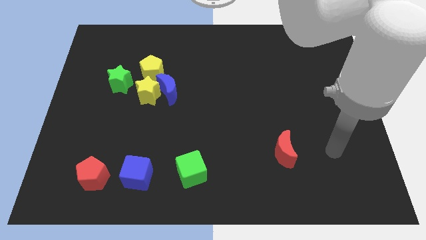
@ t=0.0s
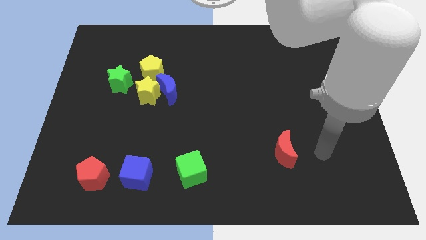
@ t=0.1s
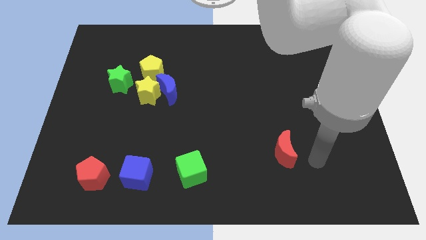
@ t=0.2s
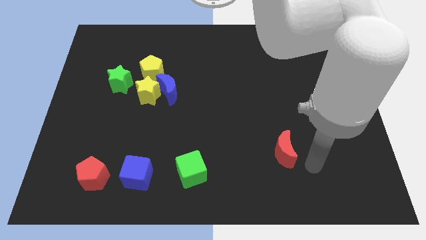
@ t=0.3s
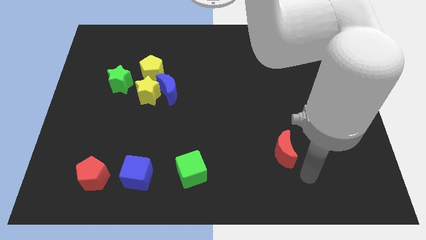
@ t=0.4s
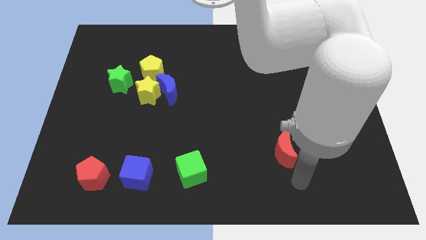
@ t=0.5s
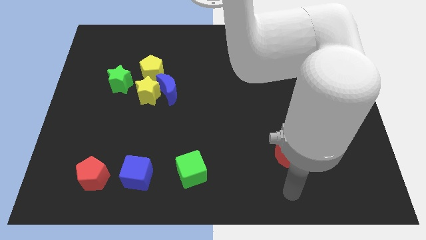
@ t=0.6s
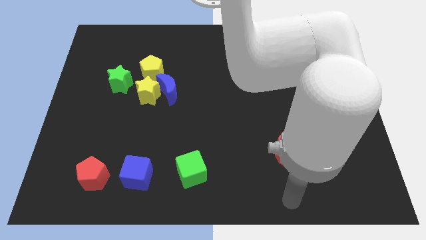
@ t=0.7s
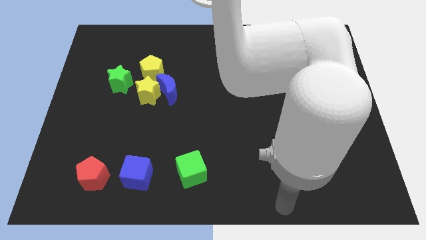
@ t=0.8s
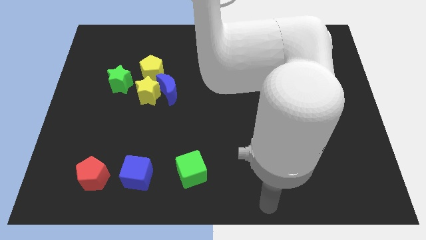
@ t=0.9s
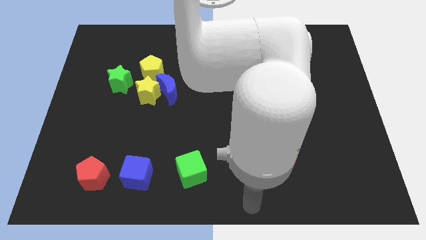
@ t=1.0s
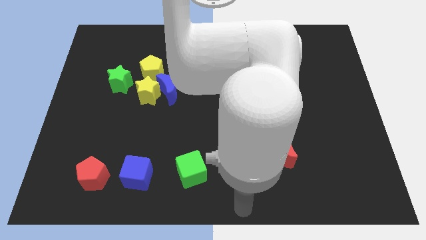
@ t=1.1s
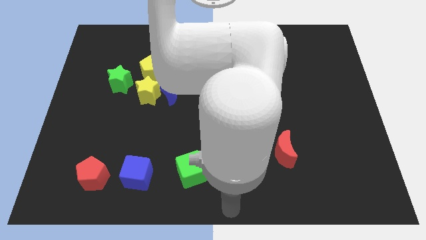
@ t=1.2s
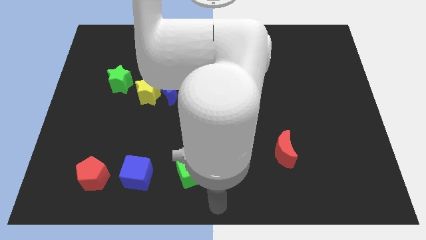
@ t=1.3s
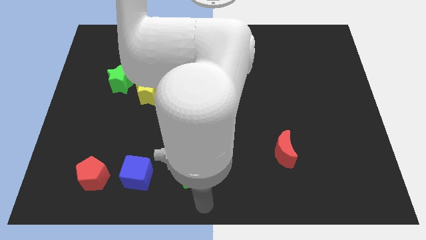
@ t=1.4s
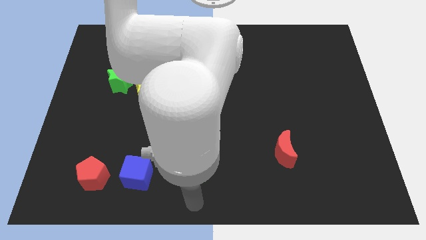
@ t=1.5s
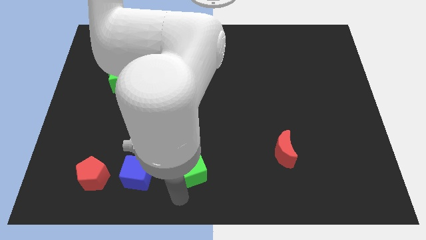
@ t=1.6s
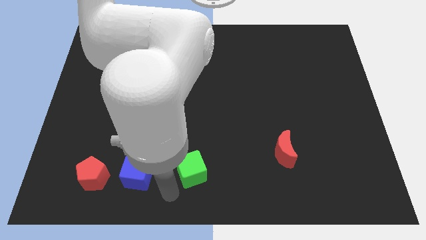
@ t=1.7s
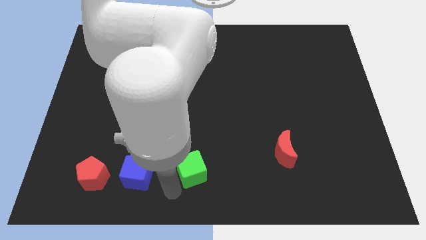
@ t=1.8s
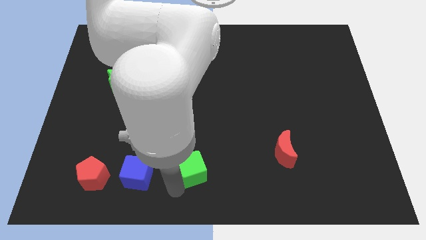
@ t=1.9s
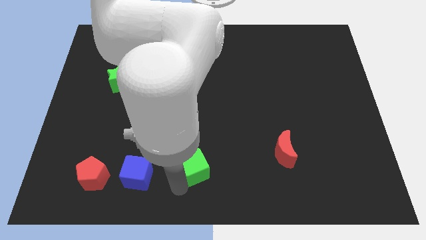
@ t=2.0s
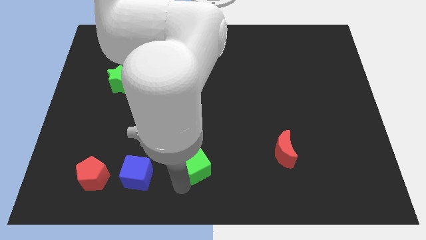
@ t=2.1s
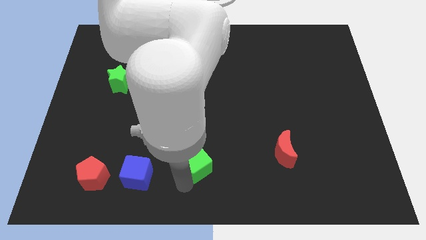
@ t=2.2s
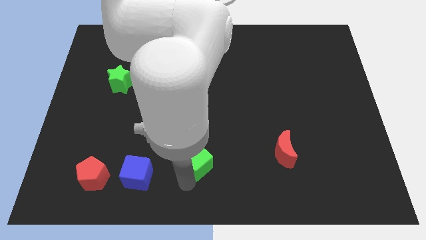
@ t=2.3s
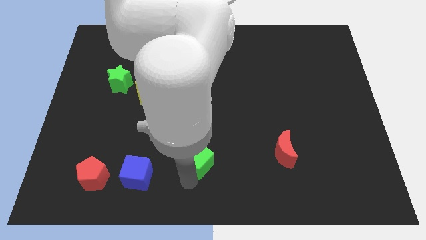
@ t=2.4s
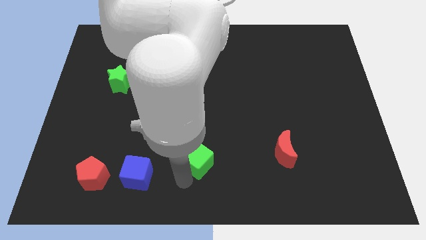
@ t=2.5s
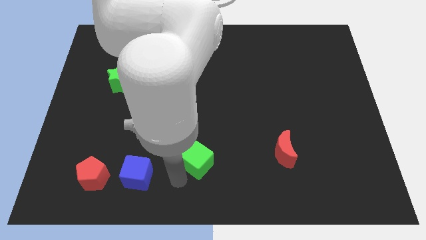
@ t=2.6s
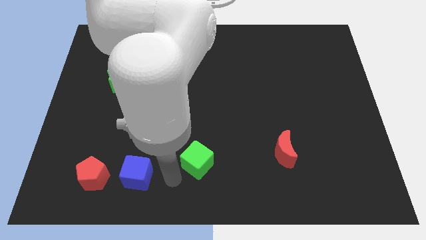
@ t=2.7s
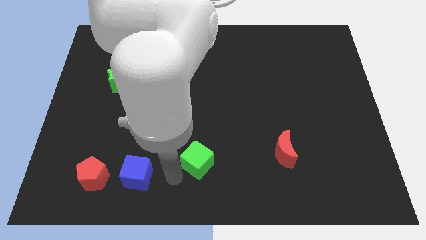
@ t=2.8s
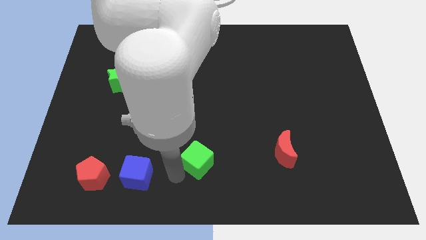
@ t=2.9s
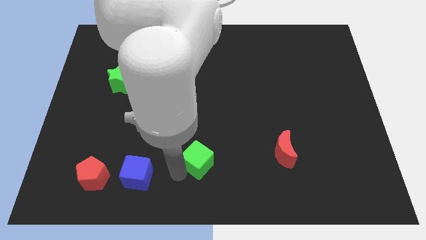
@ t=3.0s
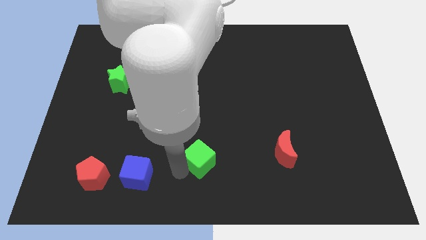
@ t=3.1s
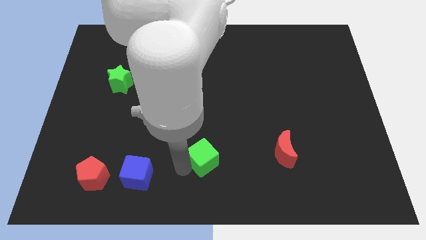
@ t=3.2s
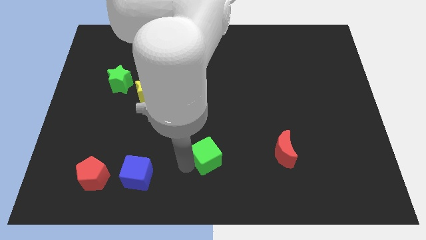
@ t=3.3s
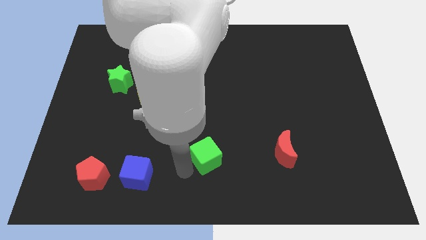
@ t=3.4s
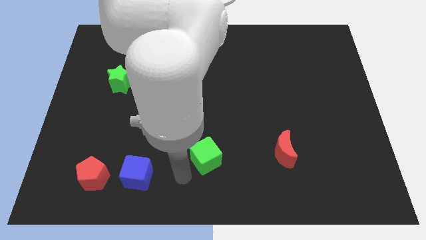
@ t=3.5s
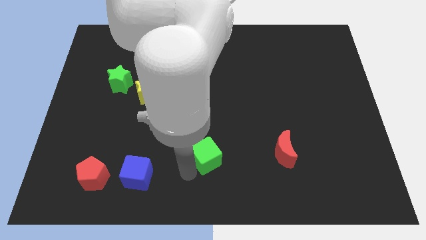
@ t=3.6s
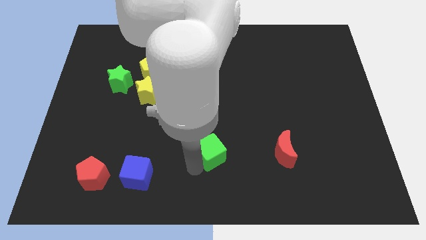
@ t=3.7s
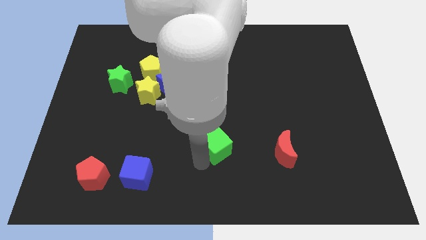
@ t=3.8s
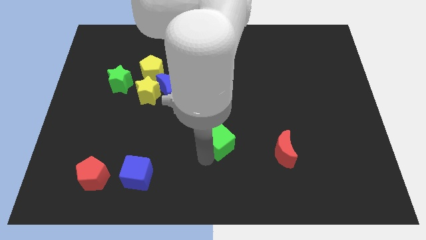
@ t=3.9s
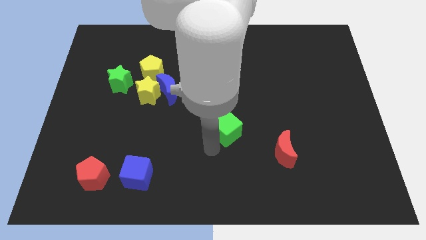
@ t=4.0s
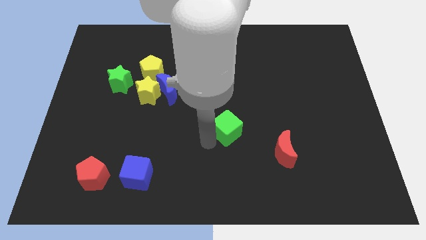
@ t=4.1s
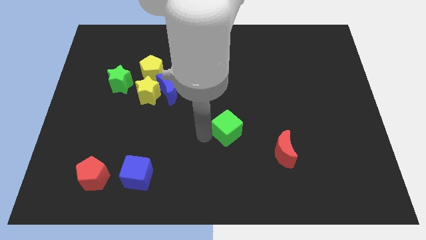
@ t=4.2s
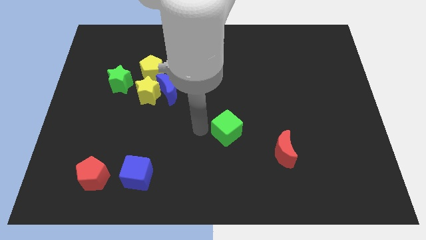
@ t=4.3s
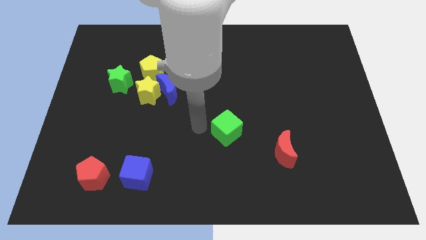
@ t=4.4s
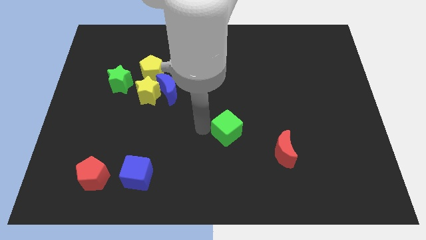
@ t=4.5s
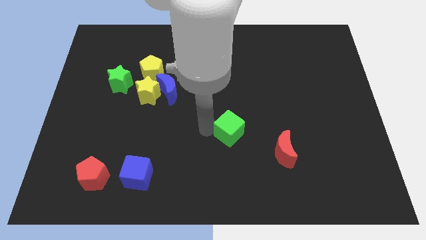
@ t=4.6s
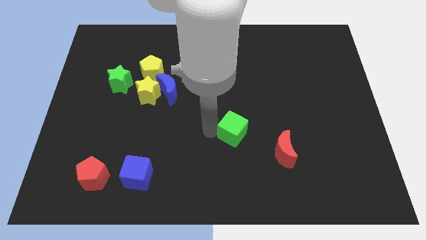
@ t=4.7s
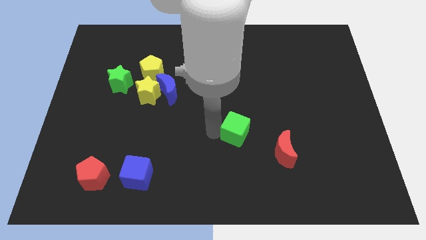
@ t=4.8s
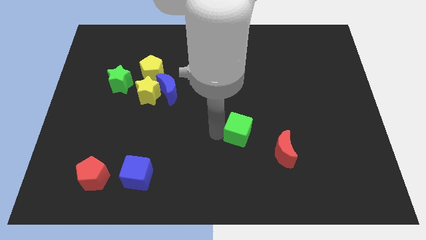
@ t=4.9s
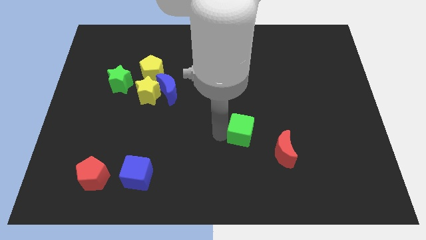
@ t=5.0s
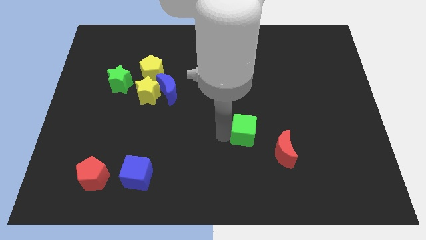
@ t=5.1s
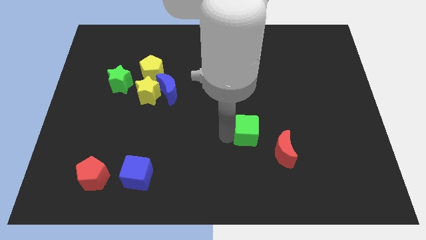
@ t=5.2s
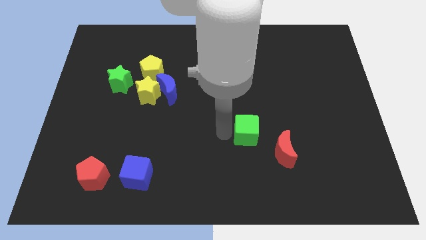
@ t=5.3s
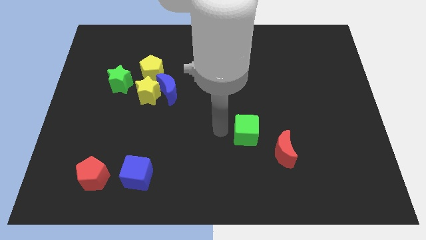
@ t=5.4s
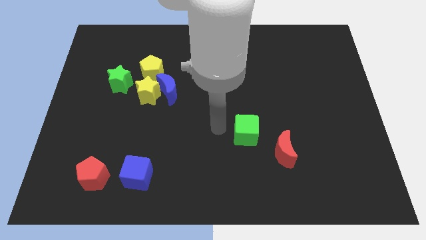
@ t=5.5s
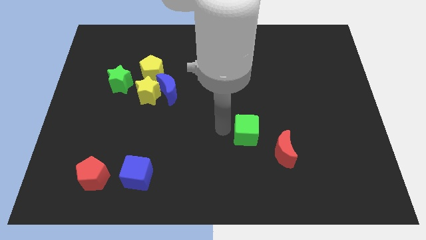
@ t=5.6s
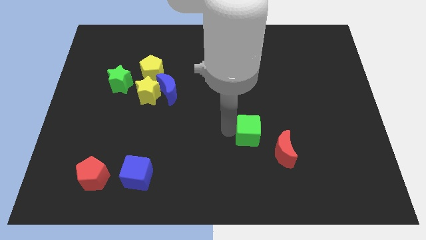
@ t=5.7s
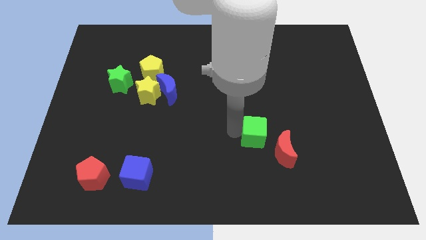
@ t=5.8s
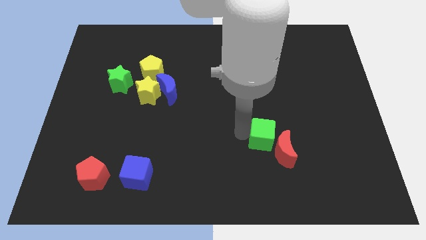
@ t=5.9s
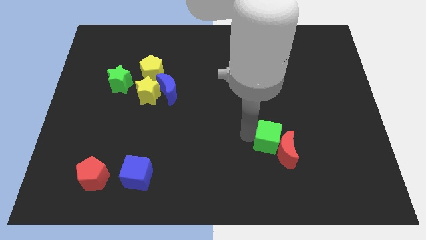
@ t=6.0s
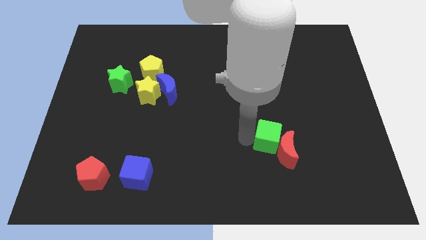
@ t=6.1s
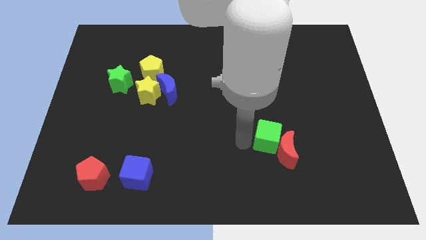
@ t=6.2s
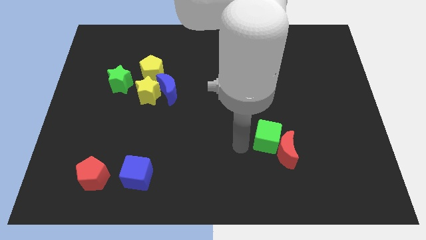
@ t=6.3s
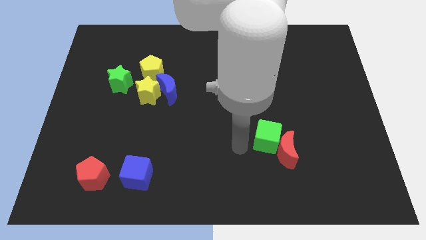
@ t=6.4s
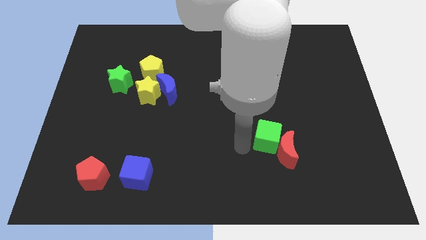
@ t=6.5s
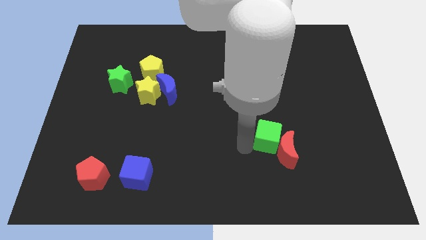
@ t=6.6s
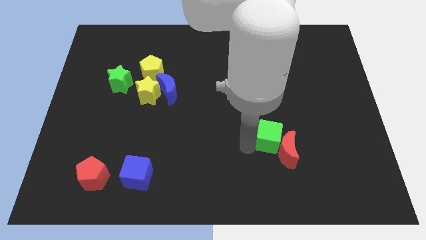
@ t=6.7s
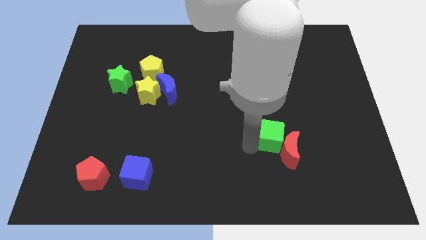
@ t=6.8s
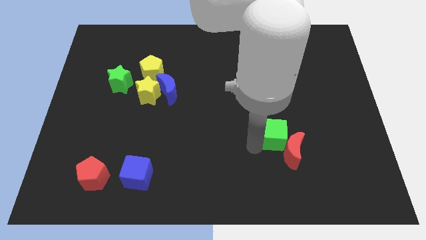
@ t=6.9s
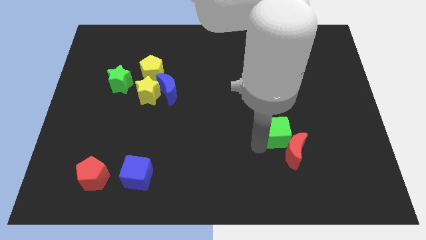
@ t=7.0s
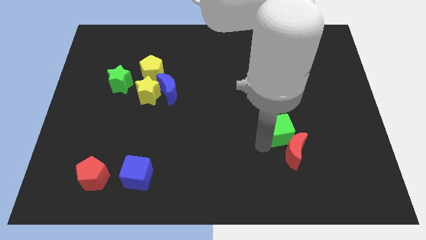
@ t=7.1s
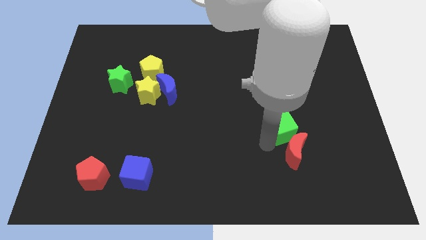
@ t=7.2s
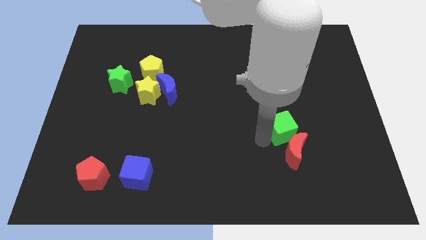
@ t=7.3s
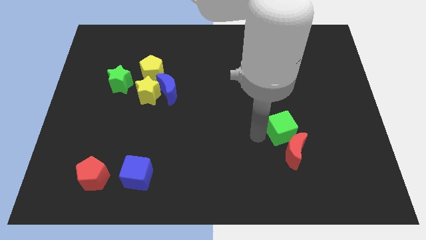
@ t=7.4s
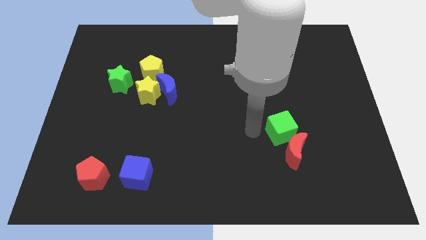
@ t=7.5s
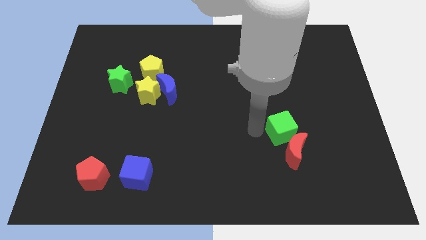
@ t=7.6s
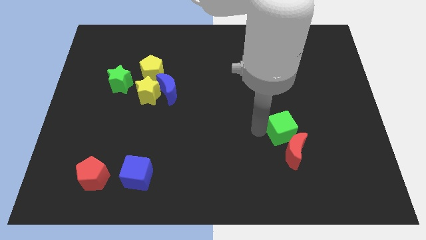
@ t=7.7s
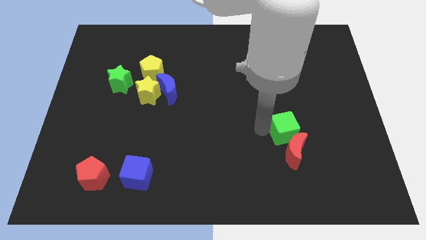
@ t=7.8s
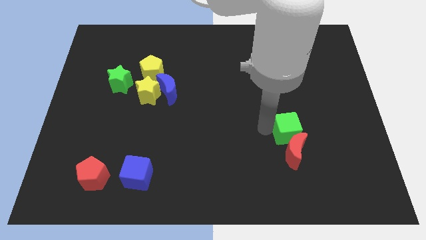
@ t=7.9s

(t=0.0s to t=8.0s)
slide the green cube diagonally up and to the right of the red moon
